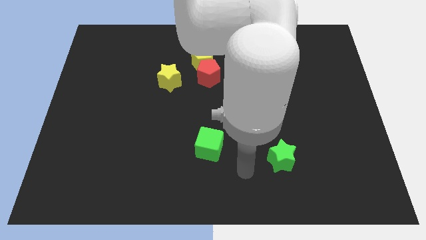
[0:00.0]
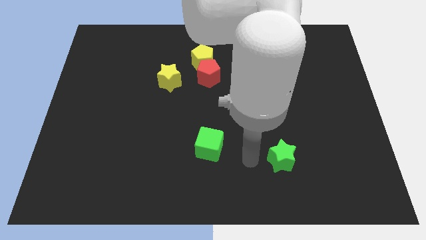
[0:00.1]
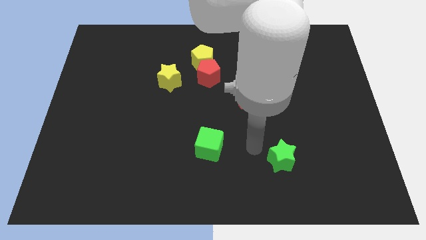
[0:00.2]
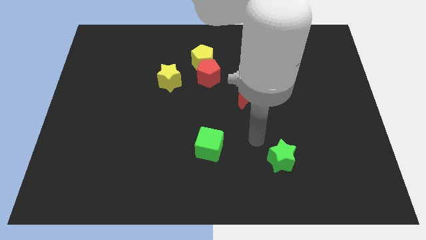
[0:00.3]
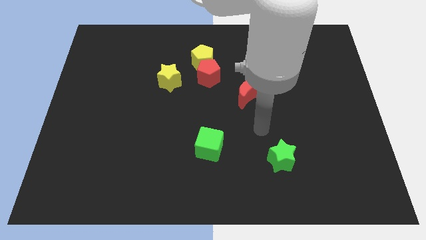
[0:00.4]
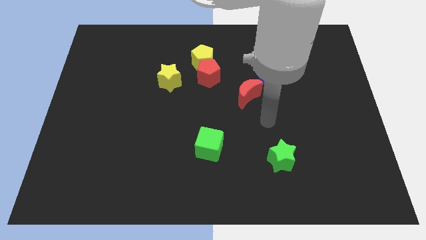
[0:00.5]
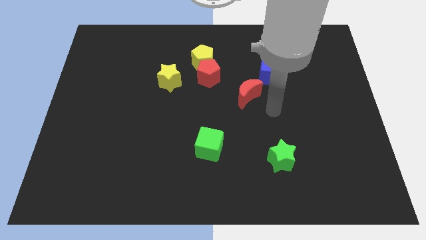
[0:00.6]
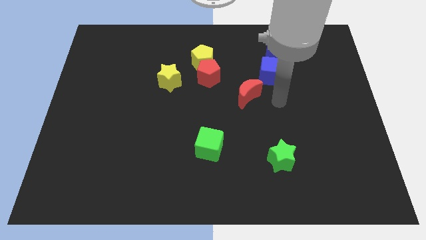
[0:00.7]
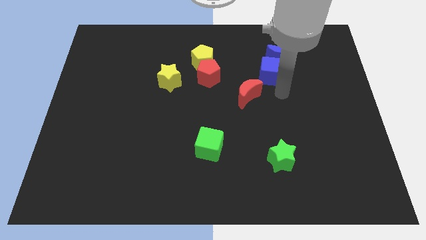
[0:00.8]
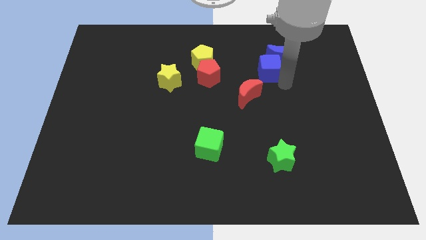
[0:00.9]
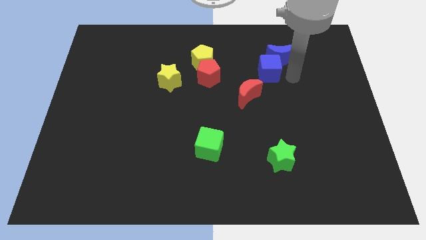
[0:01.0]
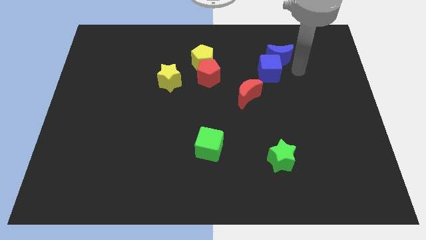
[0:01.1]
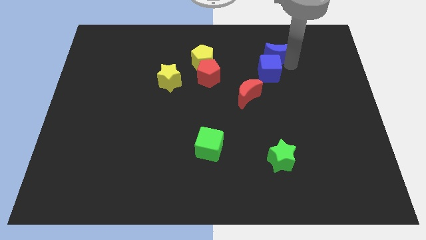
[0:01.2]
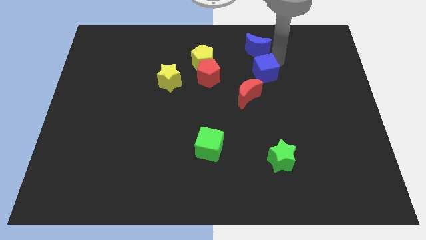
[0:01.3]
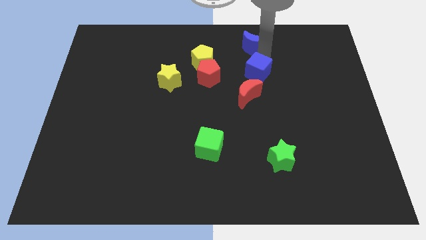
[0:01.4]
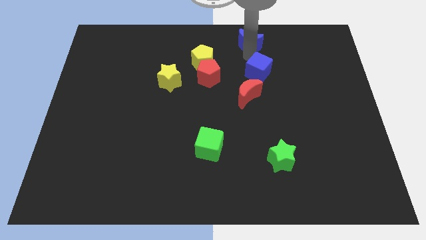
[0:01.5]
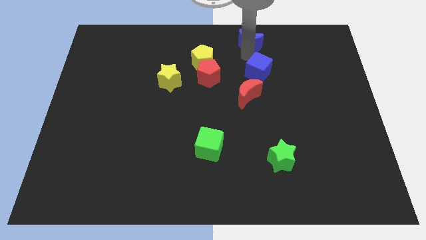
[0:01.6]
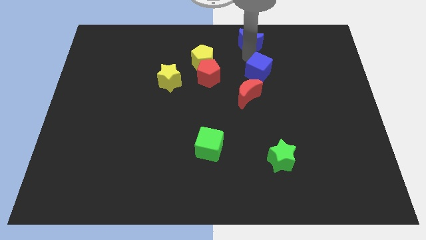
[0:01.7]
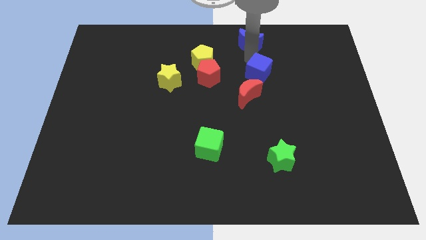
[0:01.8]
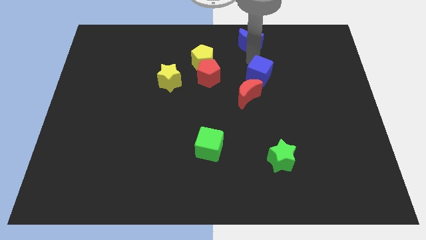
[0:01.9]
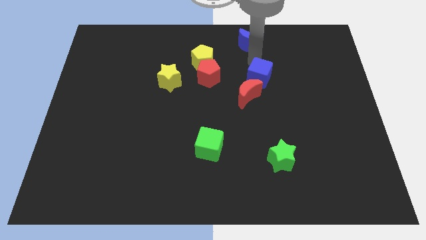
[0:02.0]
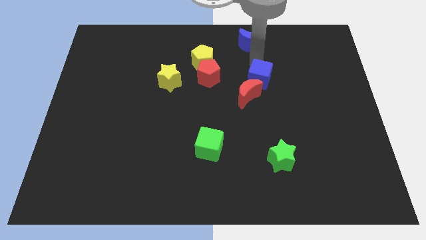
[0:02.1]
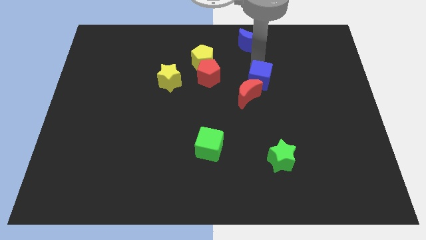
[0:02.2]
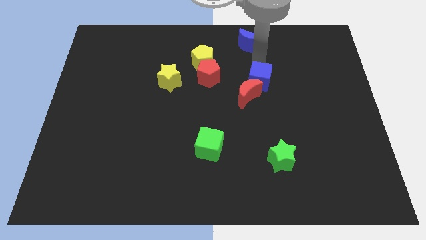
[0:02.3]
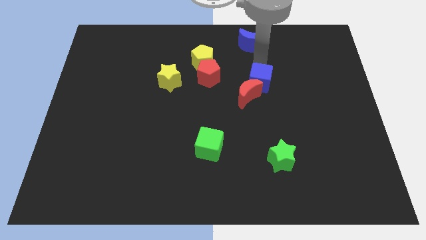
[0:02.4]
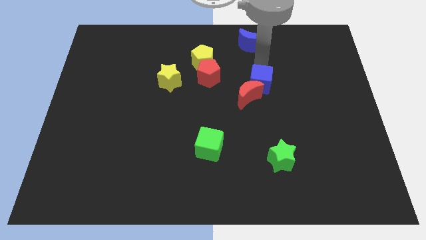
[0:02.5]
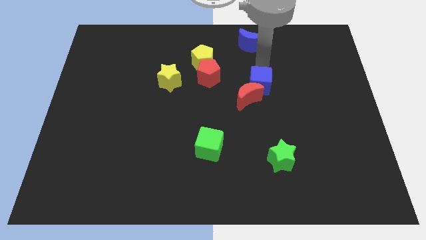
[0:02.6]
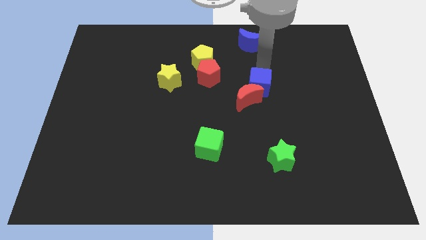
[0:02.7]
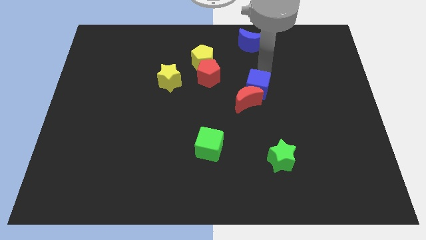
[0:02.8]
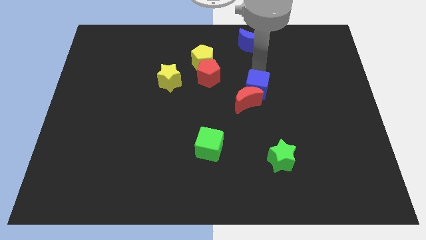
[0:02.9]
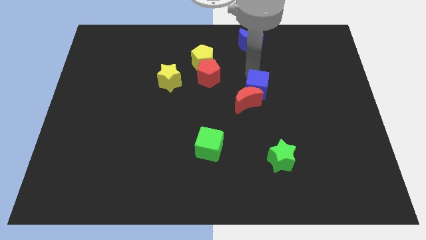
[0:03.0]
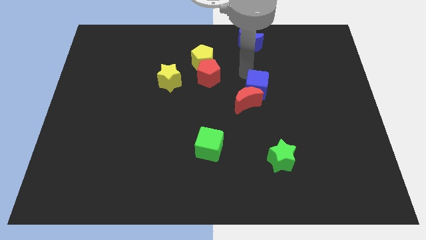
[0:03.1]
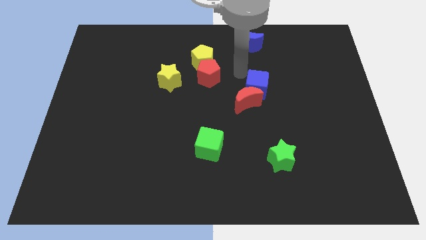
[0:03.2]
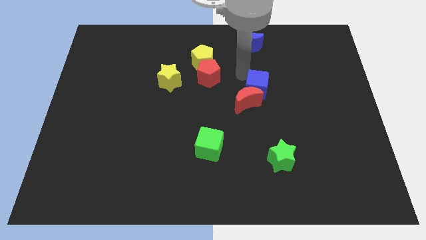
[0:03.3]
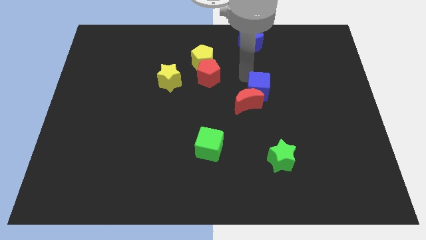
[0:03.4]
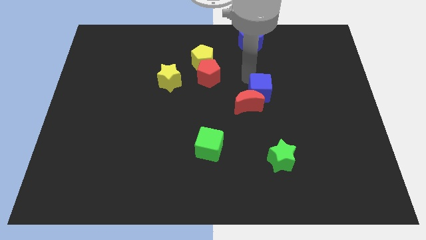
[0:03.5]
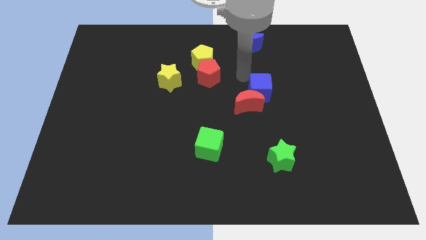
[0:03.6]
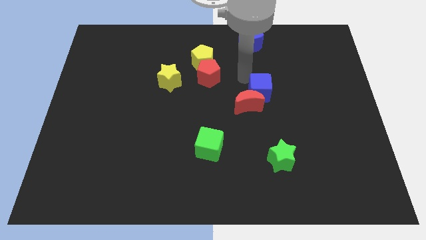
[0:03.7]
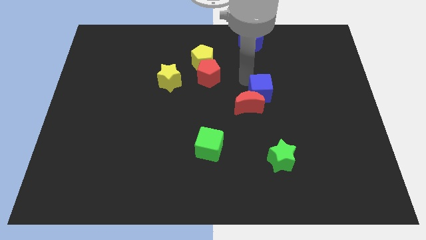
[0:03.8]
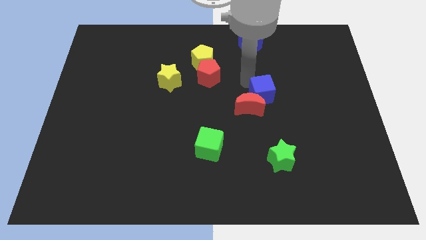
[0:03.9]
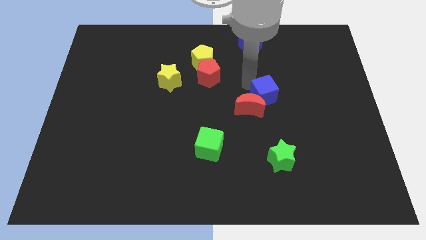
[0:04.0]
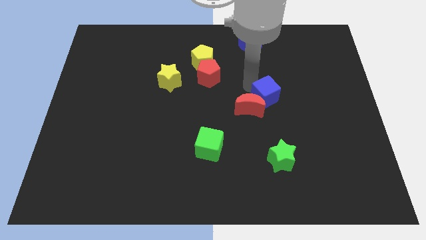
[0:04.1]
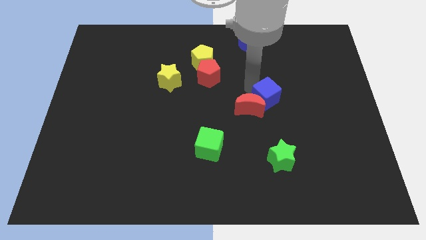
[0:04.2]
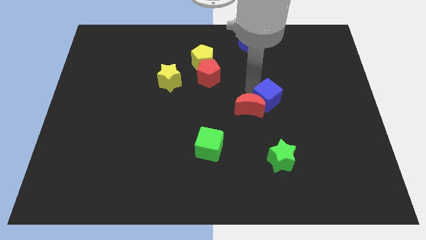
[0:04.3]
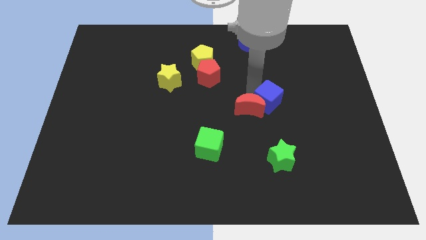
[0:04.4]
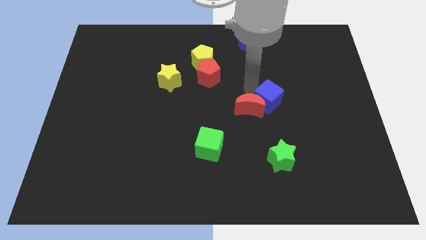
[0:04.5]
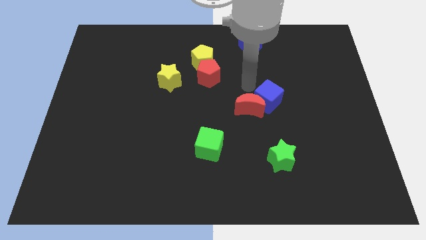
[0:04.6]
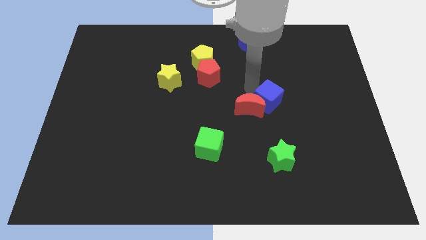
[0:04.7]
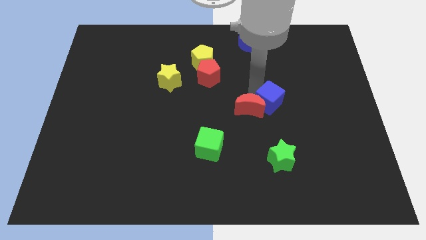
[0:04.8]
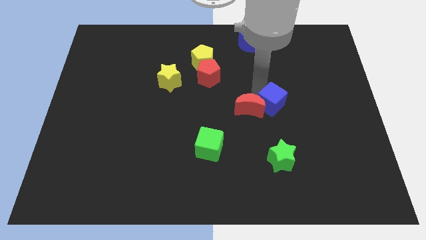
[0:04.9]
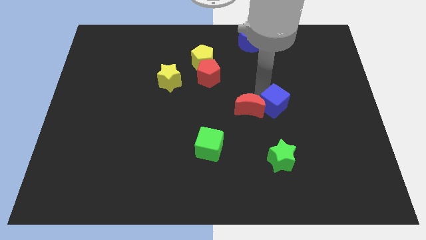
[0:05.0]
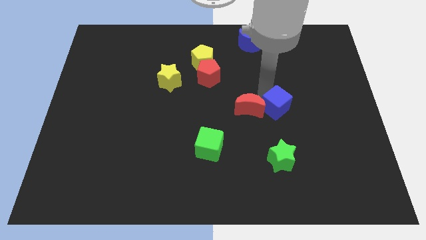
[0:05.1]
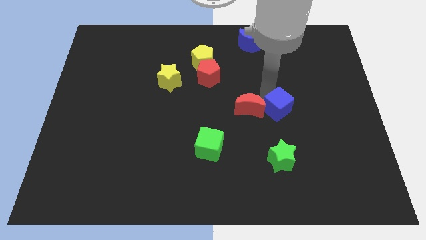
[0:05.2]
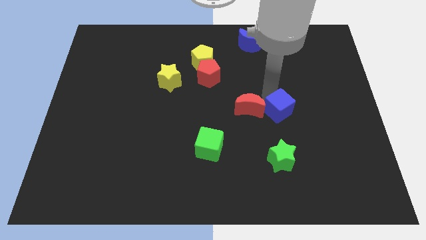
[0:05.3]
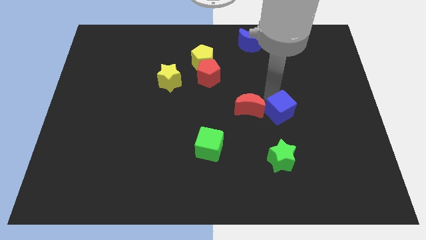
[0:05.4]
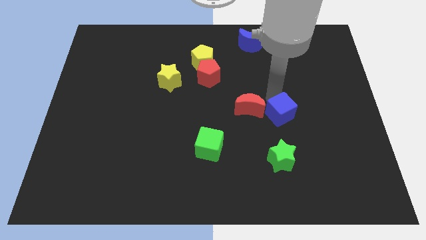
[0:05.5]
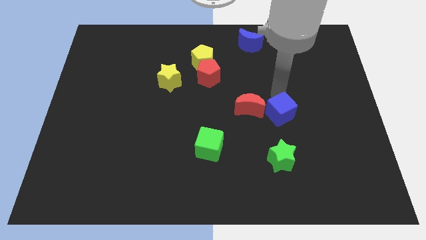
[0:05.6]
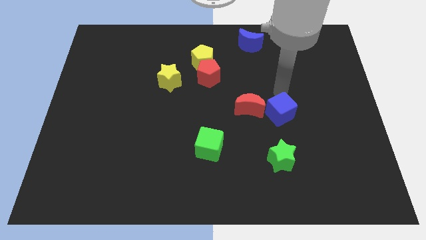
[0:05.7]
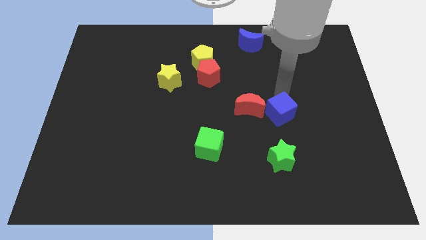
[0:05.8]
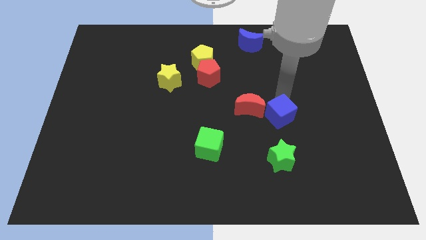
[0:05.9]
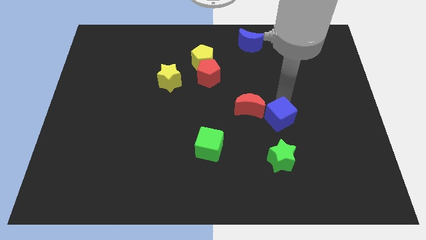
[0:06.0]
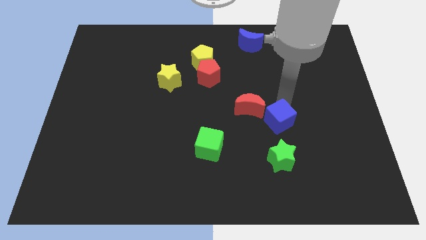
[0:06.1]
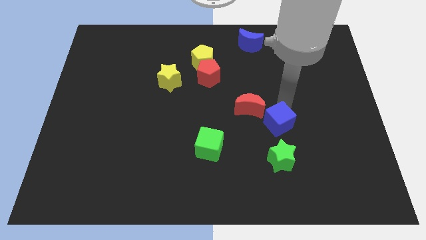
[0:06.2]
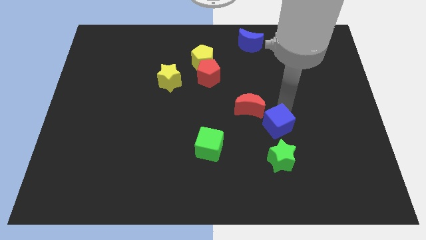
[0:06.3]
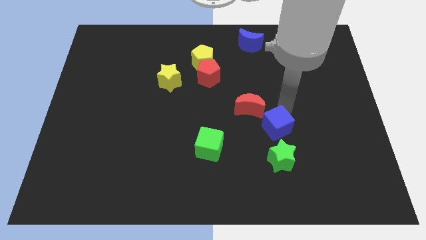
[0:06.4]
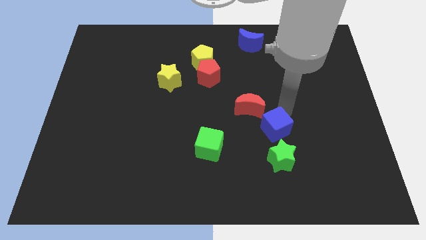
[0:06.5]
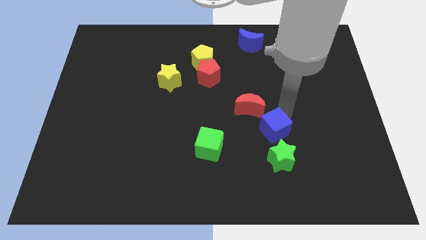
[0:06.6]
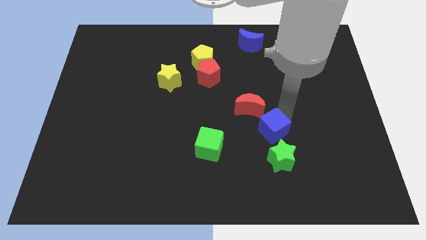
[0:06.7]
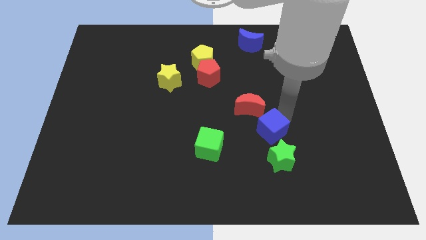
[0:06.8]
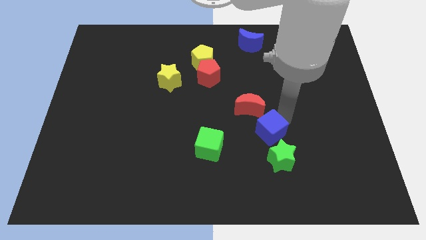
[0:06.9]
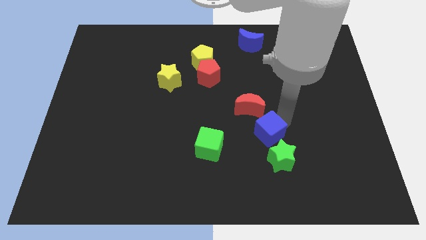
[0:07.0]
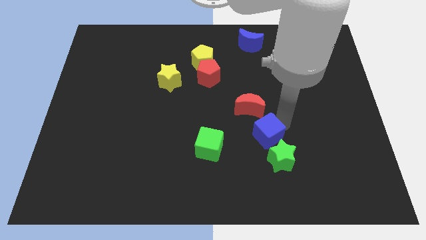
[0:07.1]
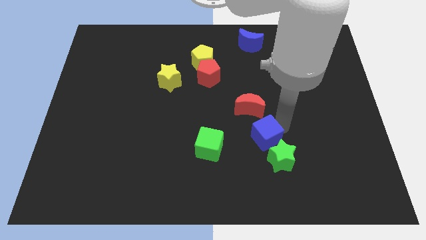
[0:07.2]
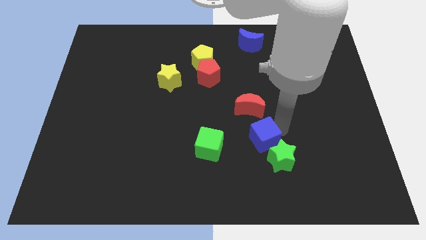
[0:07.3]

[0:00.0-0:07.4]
move the blue cube close to the green star
